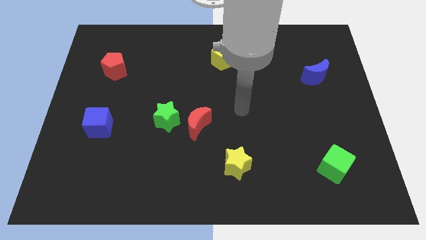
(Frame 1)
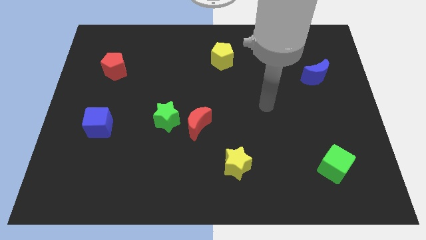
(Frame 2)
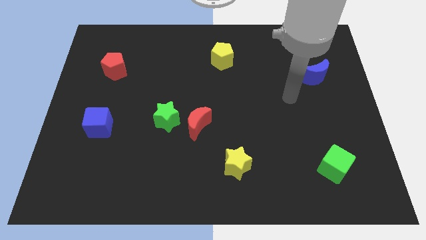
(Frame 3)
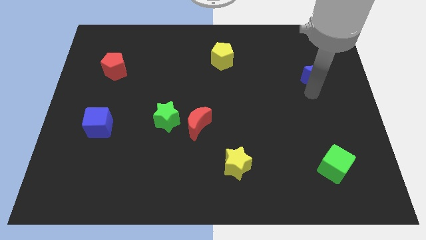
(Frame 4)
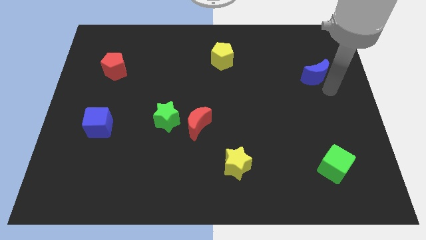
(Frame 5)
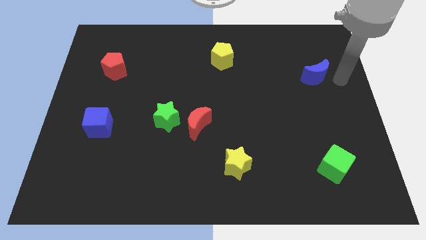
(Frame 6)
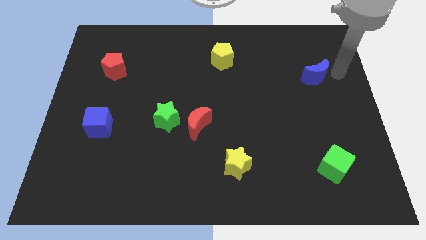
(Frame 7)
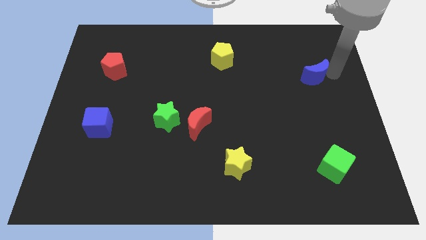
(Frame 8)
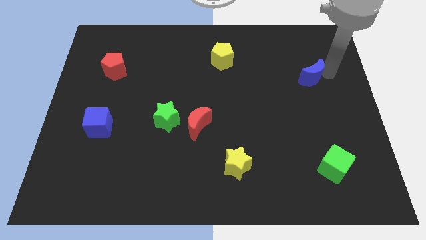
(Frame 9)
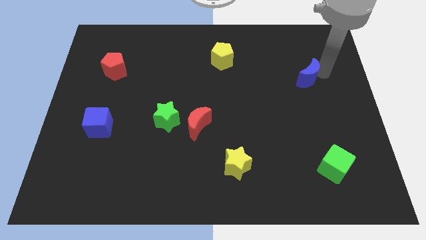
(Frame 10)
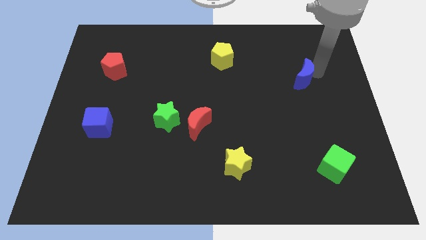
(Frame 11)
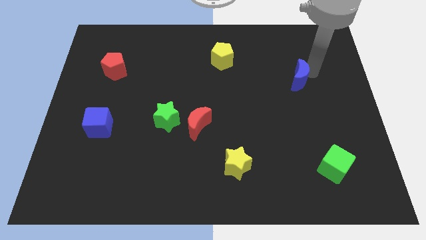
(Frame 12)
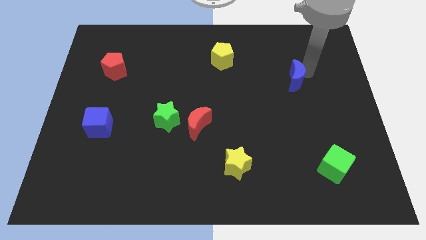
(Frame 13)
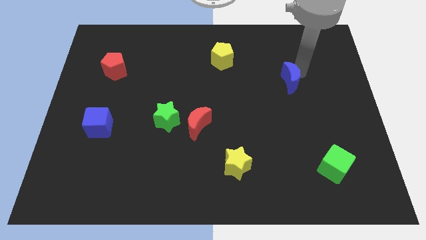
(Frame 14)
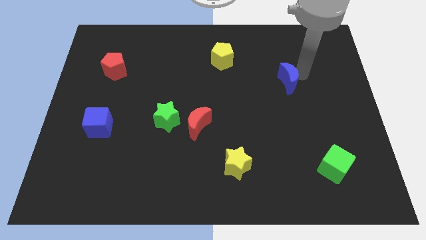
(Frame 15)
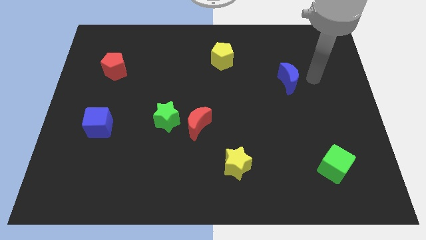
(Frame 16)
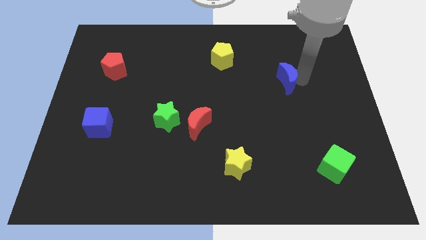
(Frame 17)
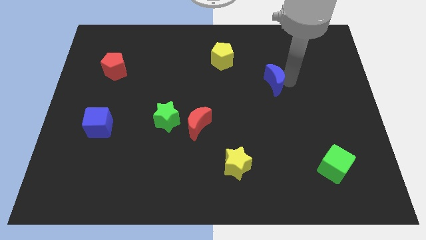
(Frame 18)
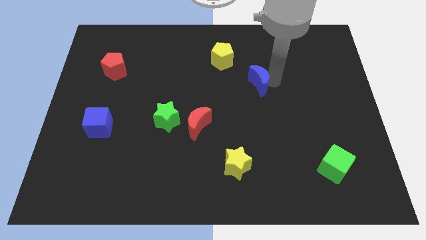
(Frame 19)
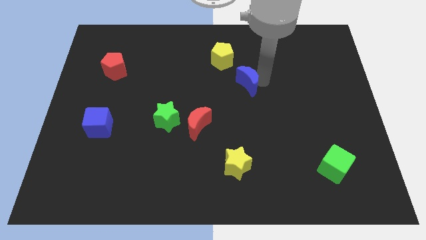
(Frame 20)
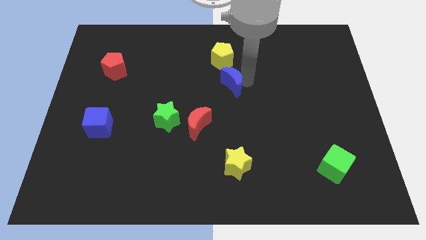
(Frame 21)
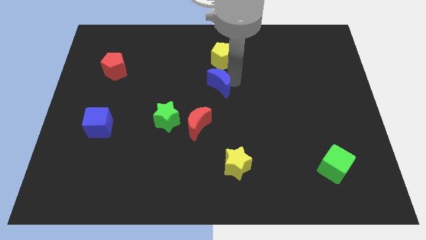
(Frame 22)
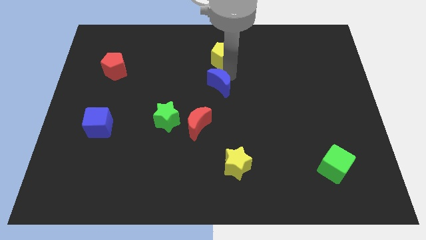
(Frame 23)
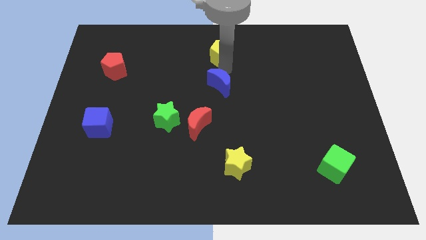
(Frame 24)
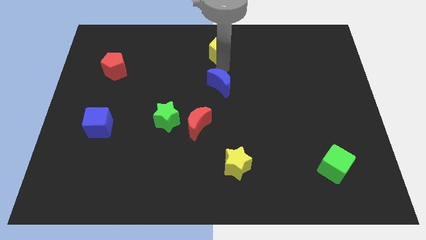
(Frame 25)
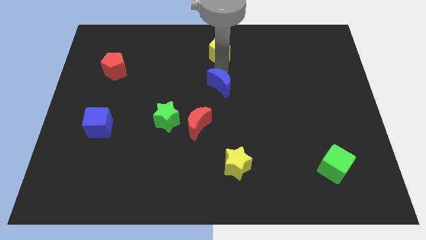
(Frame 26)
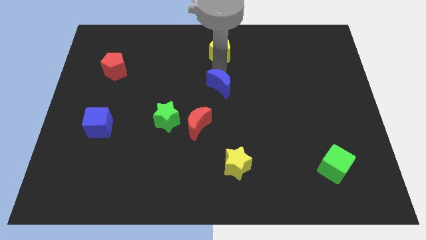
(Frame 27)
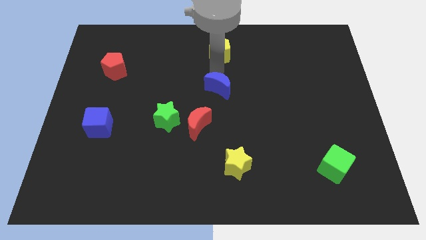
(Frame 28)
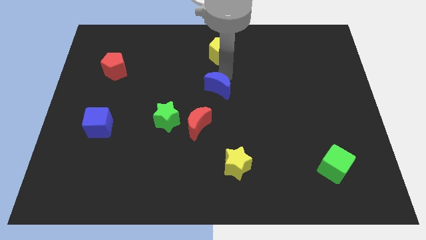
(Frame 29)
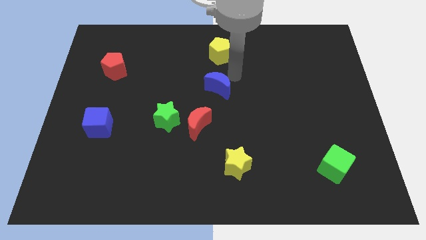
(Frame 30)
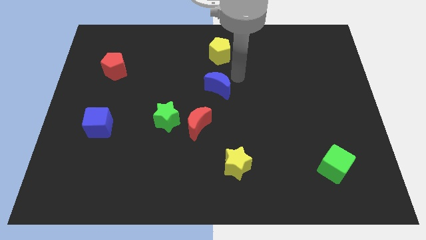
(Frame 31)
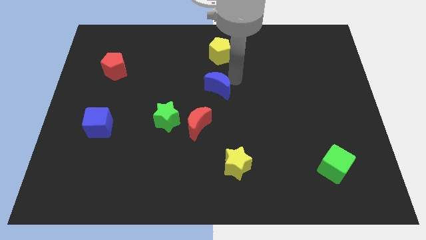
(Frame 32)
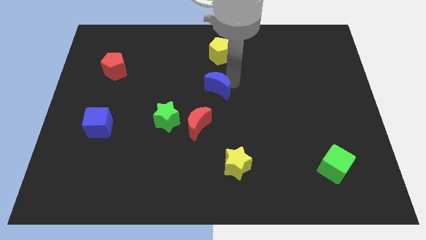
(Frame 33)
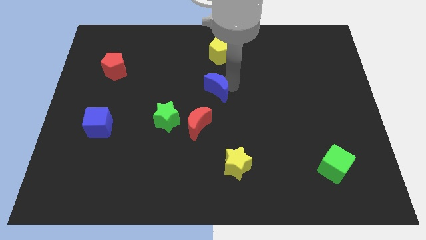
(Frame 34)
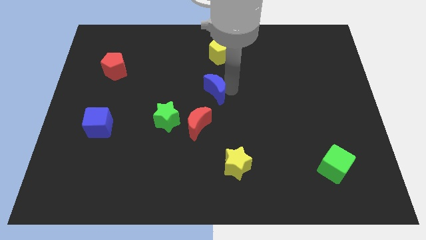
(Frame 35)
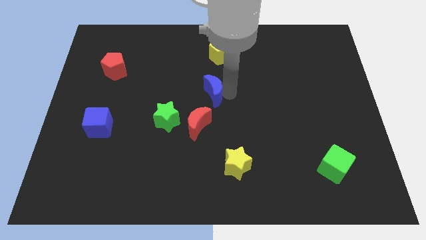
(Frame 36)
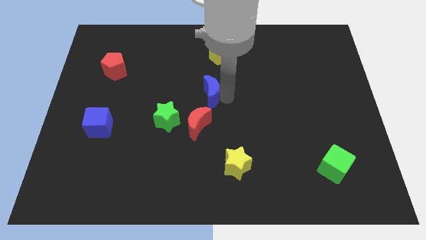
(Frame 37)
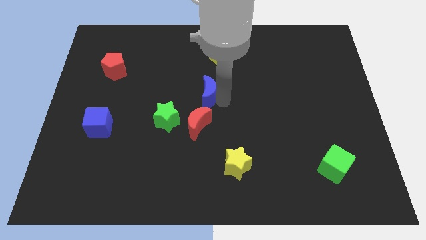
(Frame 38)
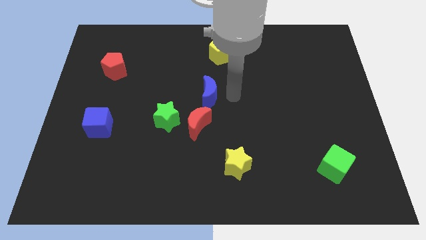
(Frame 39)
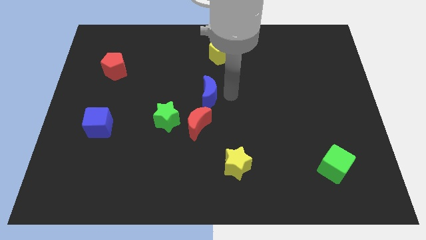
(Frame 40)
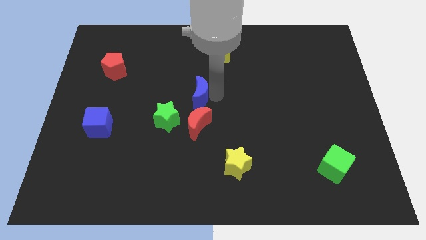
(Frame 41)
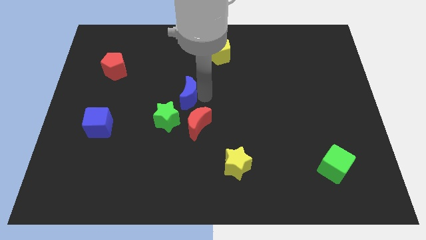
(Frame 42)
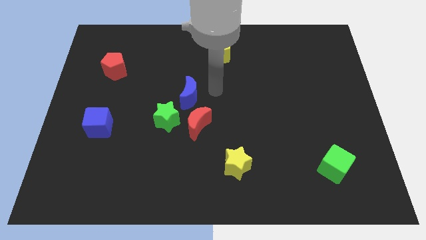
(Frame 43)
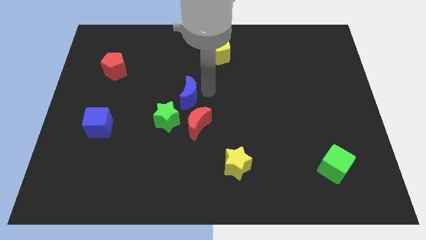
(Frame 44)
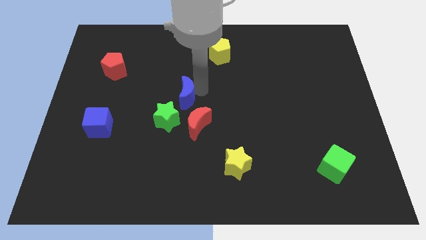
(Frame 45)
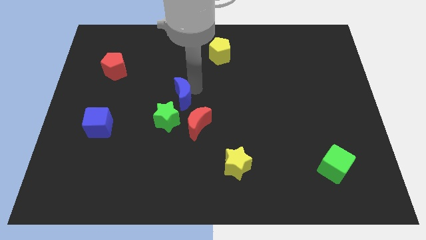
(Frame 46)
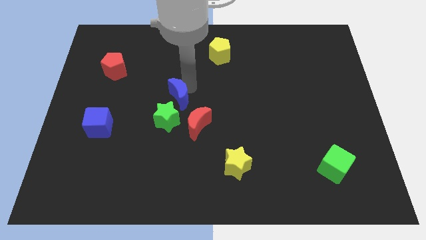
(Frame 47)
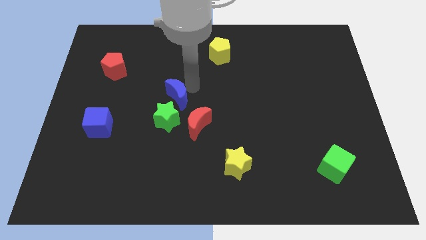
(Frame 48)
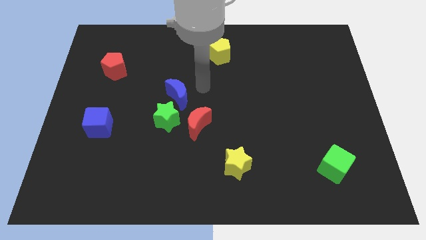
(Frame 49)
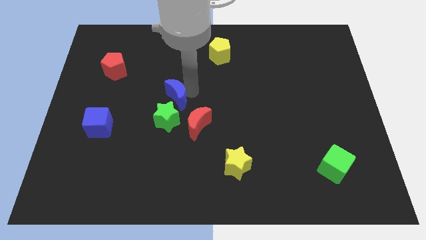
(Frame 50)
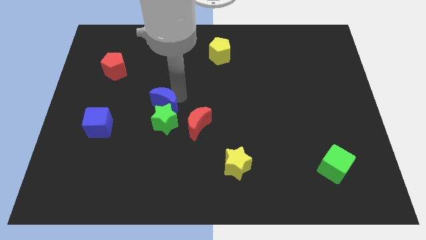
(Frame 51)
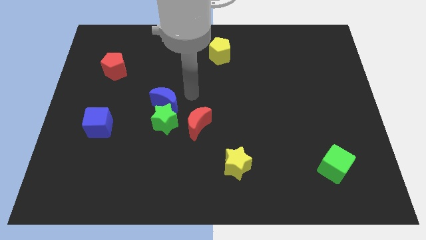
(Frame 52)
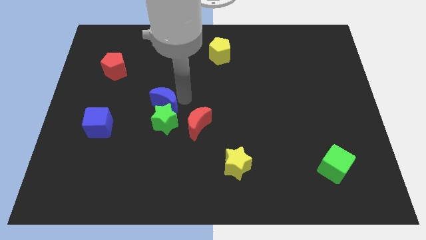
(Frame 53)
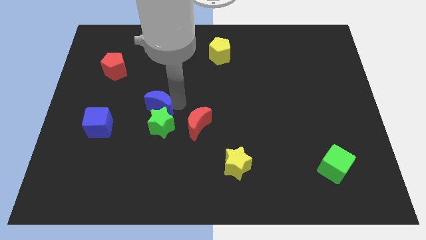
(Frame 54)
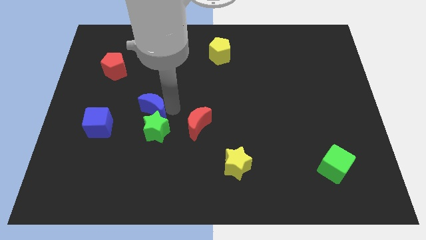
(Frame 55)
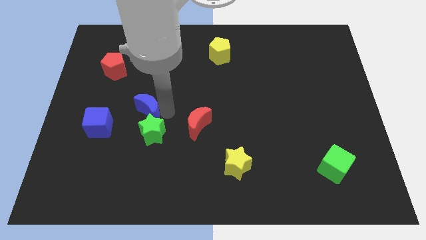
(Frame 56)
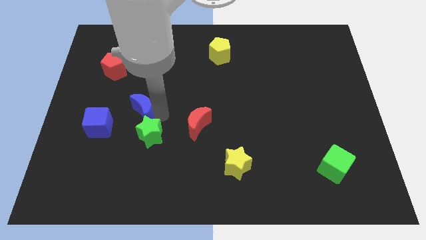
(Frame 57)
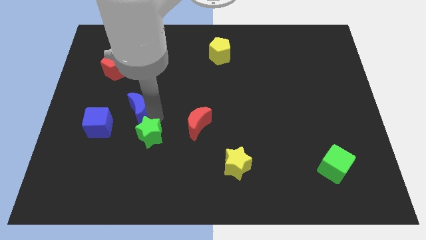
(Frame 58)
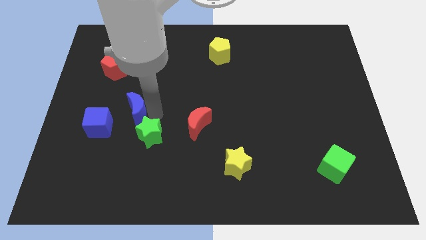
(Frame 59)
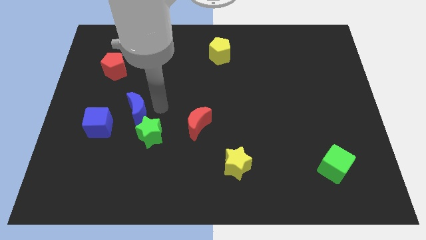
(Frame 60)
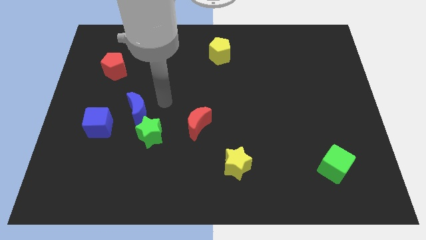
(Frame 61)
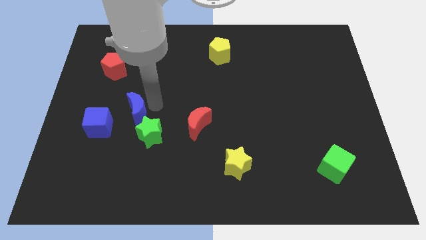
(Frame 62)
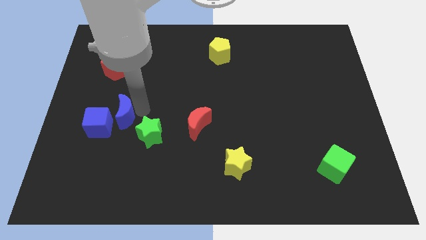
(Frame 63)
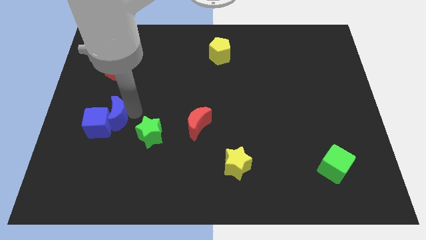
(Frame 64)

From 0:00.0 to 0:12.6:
move the blue moon next to the blue cube

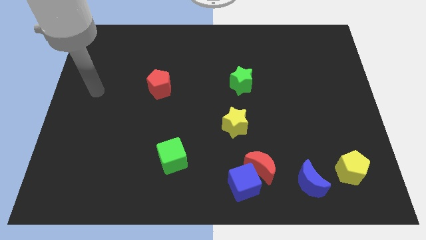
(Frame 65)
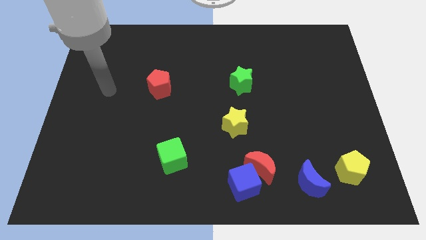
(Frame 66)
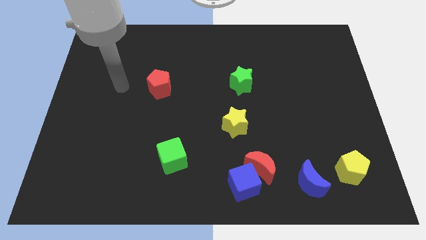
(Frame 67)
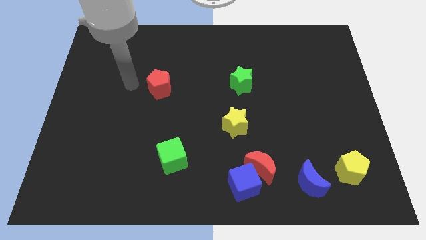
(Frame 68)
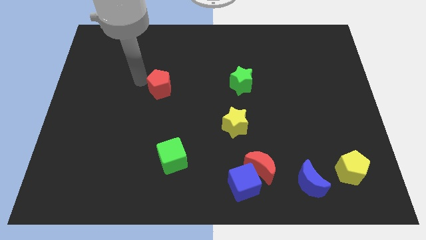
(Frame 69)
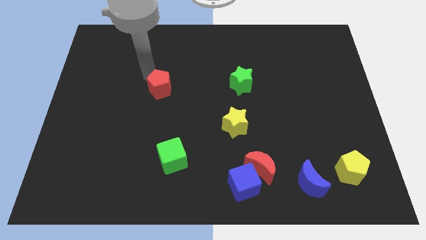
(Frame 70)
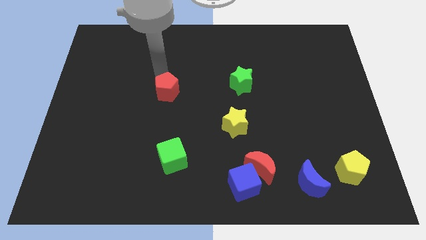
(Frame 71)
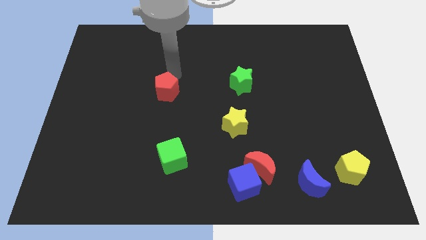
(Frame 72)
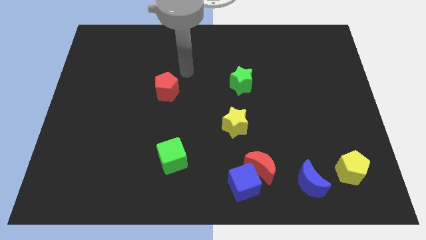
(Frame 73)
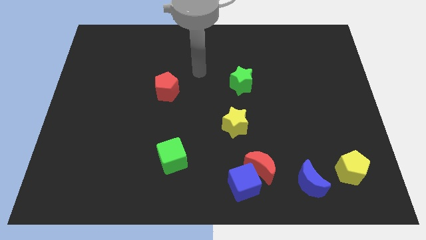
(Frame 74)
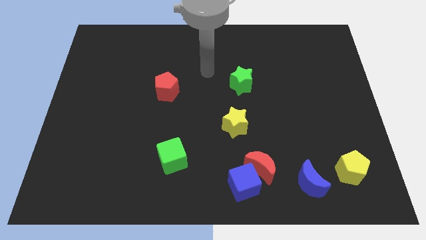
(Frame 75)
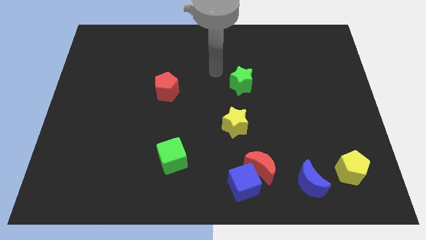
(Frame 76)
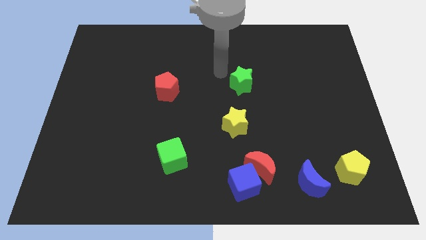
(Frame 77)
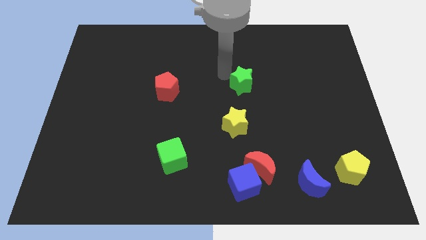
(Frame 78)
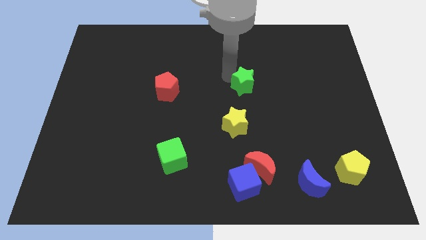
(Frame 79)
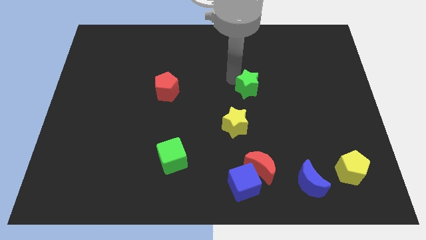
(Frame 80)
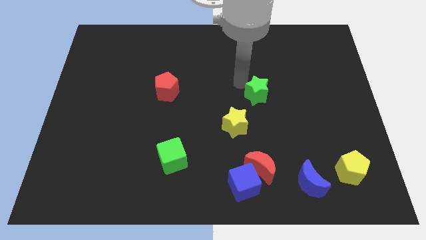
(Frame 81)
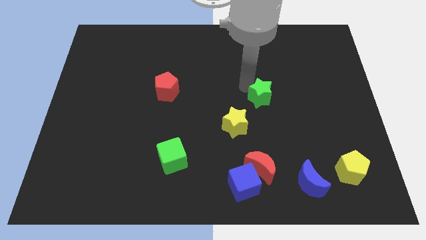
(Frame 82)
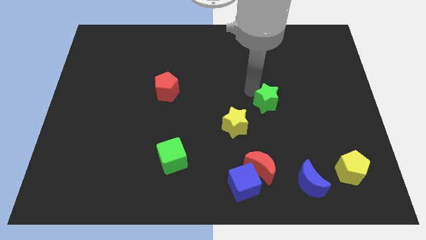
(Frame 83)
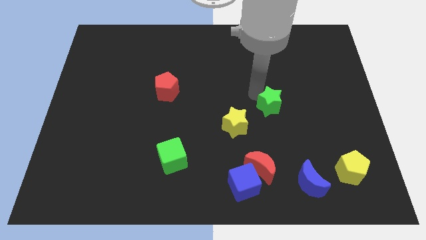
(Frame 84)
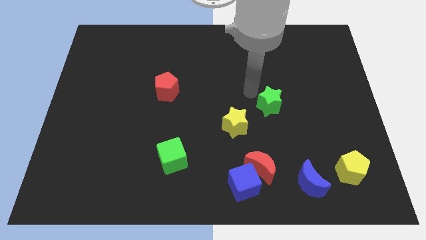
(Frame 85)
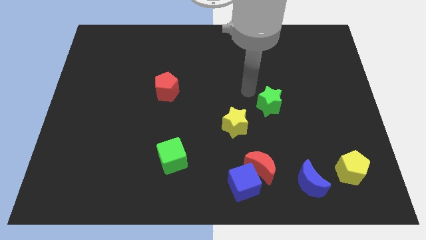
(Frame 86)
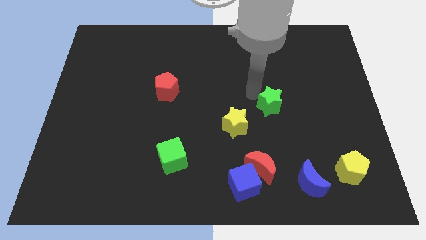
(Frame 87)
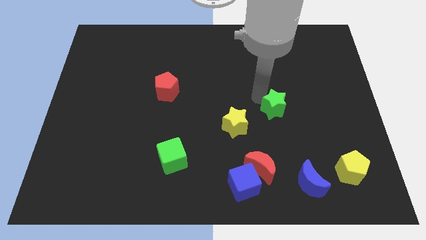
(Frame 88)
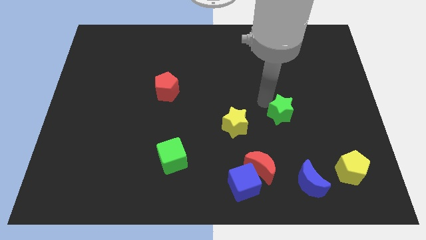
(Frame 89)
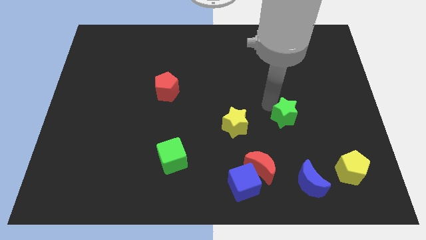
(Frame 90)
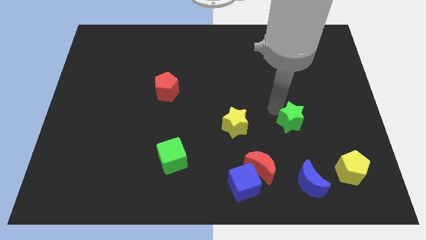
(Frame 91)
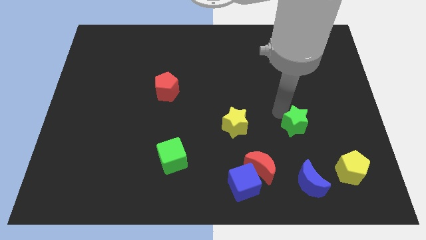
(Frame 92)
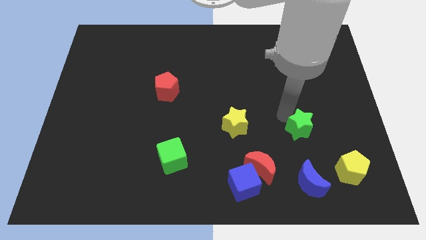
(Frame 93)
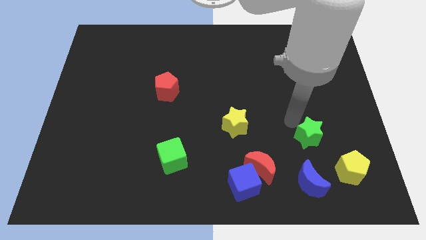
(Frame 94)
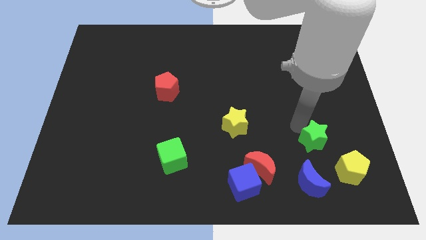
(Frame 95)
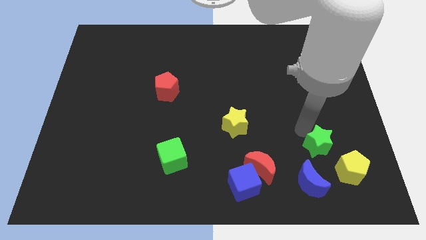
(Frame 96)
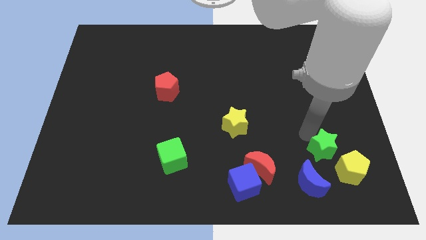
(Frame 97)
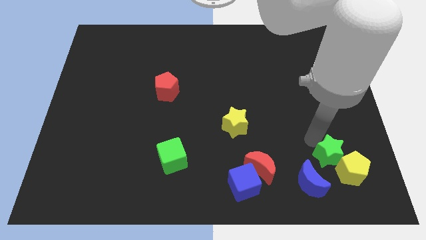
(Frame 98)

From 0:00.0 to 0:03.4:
push the green star next to the yellow pentagon
